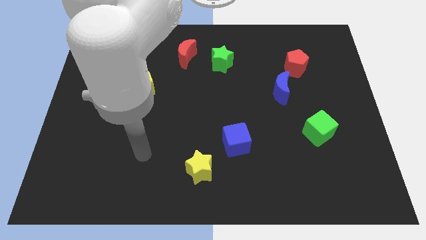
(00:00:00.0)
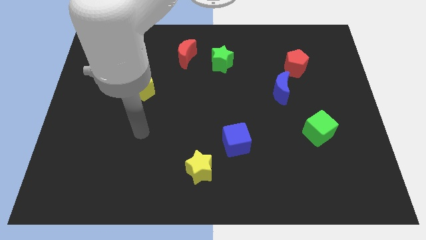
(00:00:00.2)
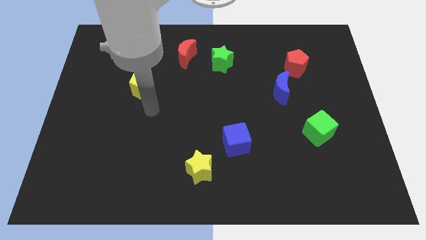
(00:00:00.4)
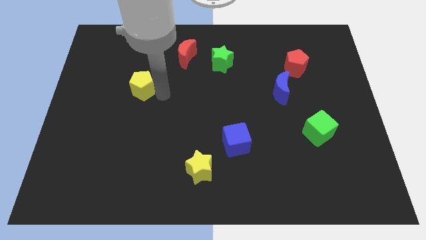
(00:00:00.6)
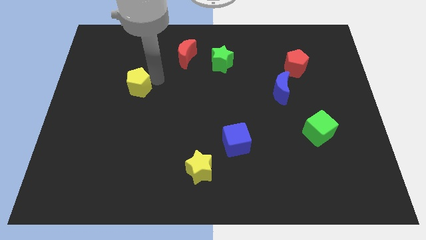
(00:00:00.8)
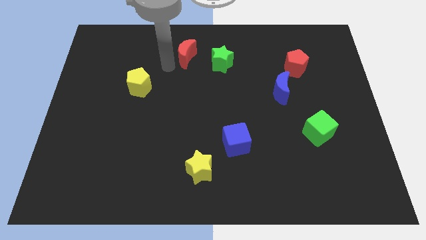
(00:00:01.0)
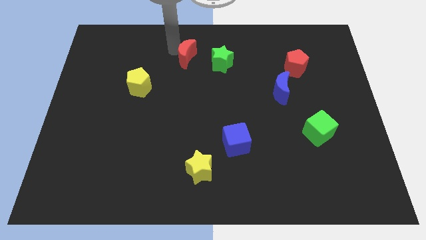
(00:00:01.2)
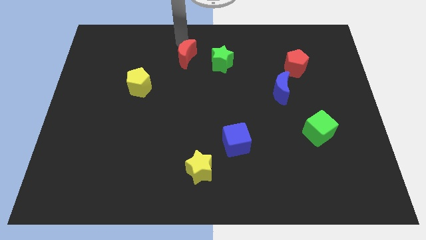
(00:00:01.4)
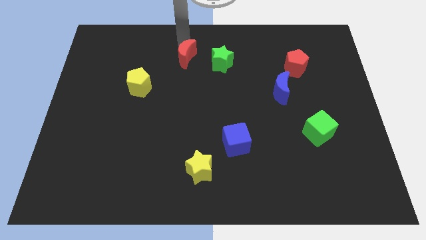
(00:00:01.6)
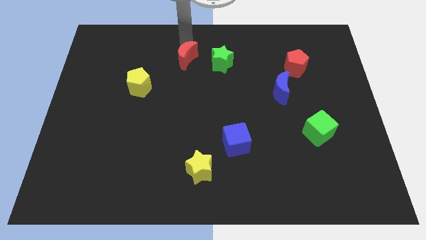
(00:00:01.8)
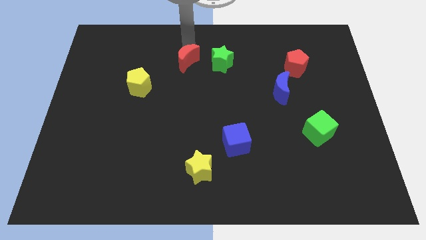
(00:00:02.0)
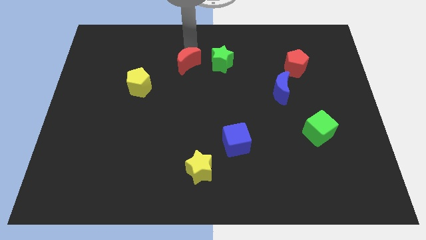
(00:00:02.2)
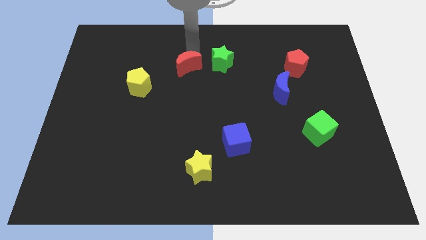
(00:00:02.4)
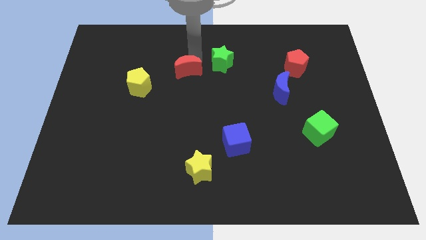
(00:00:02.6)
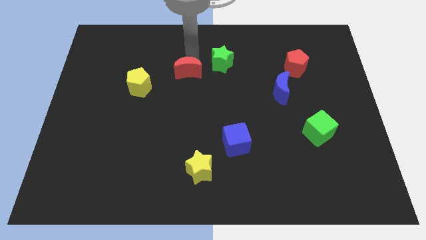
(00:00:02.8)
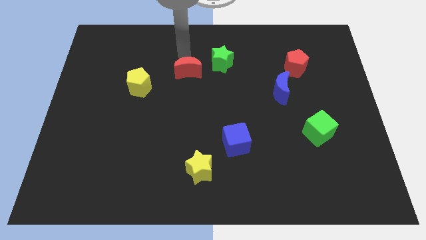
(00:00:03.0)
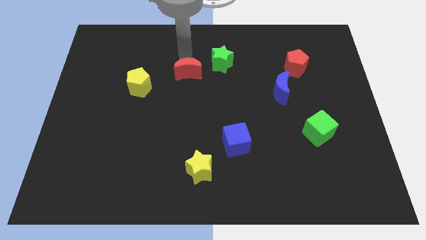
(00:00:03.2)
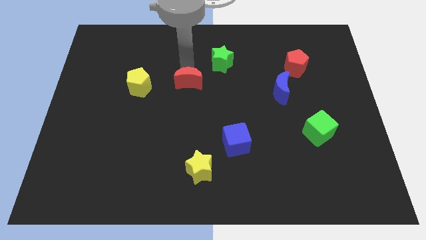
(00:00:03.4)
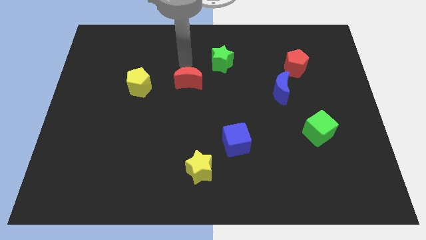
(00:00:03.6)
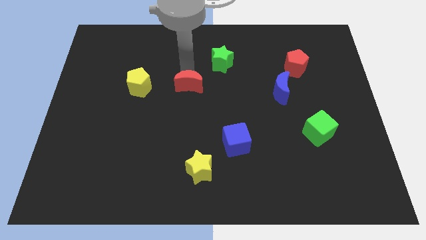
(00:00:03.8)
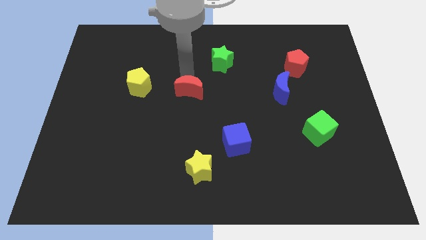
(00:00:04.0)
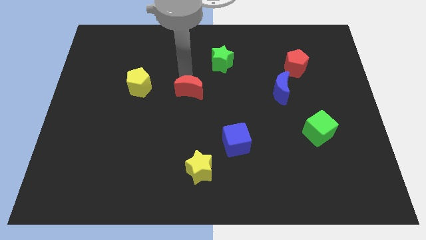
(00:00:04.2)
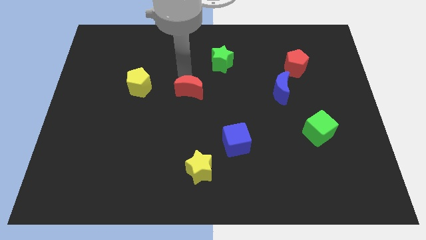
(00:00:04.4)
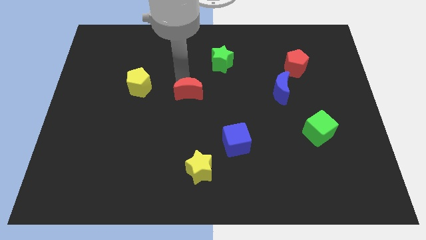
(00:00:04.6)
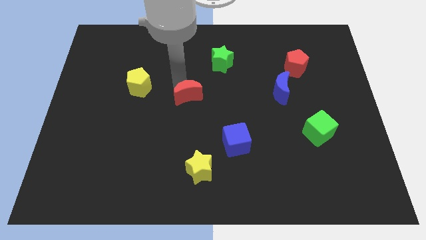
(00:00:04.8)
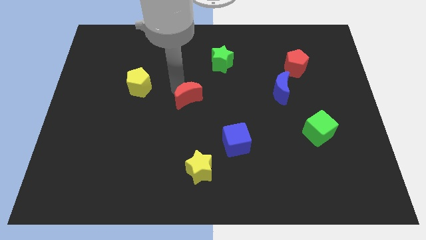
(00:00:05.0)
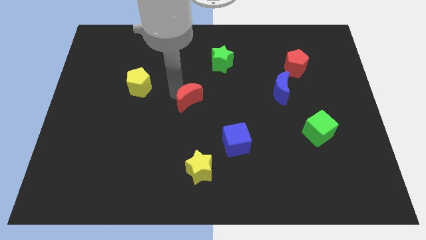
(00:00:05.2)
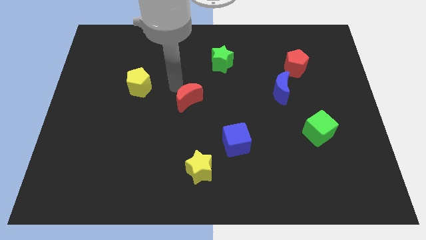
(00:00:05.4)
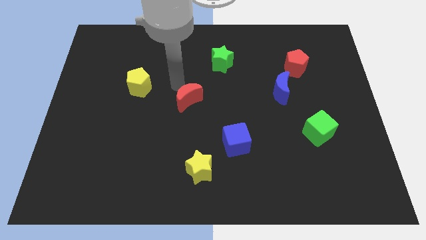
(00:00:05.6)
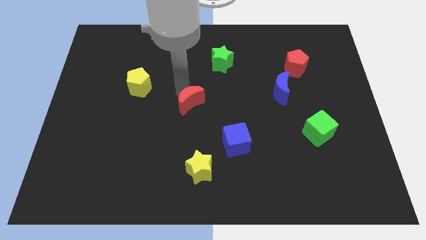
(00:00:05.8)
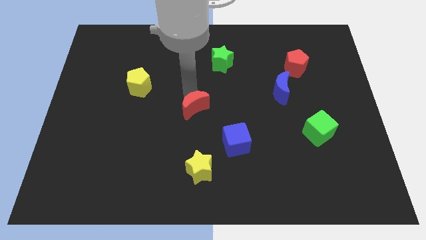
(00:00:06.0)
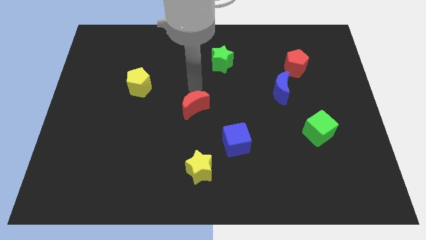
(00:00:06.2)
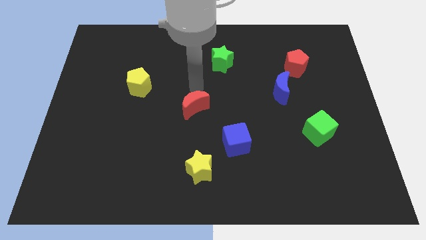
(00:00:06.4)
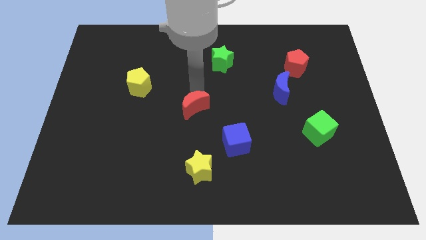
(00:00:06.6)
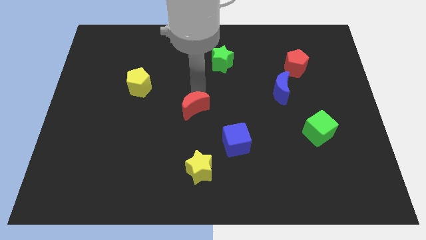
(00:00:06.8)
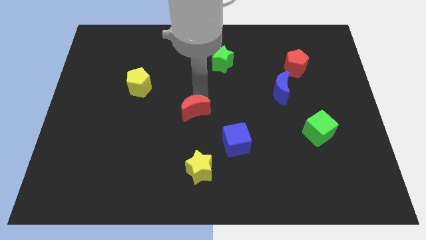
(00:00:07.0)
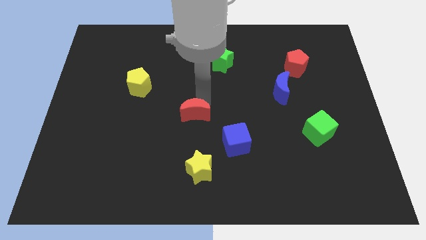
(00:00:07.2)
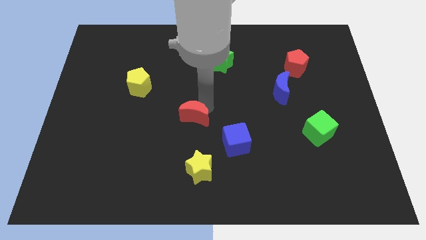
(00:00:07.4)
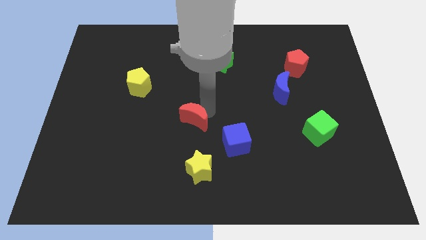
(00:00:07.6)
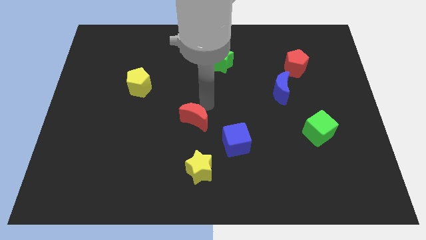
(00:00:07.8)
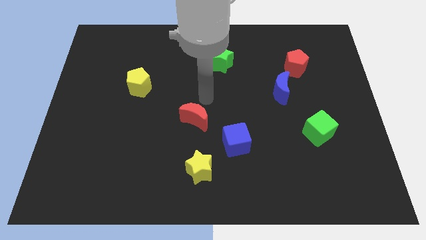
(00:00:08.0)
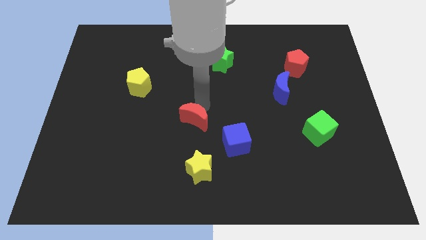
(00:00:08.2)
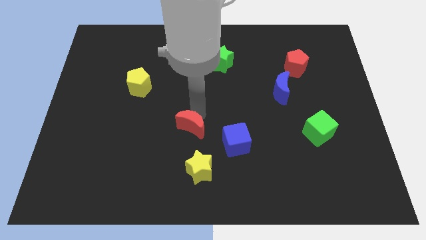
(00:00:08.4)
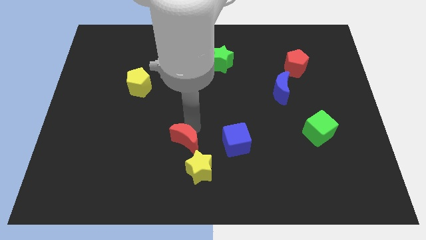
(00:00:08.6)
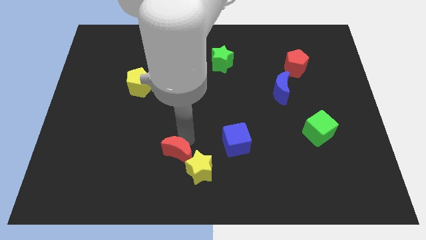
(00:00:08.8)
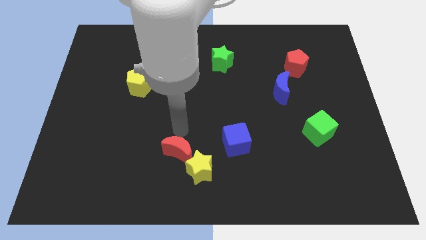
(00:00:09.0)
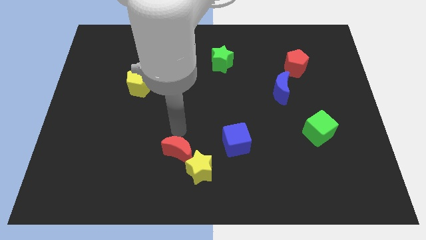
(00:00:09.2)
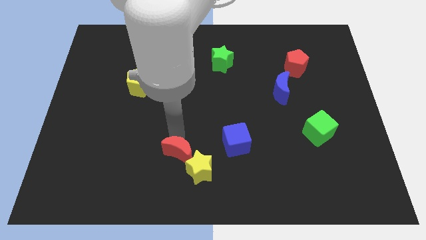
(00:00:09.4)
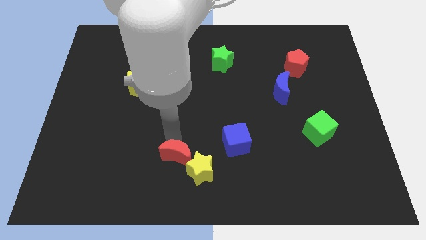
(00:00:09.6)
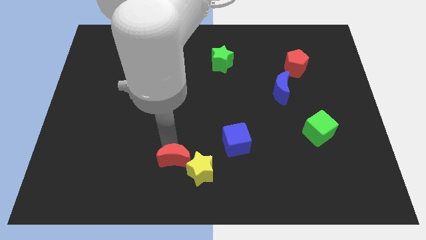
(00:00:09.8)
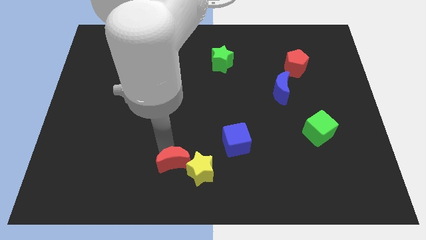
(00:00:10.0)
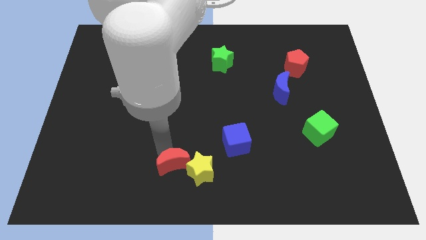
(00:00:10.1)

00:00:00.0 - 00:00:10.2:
put the red moon to the bottom

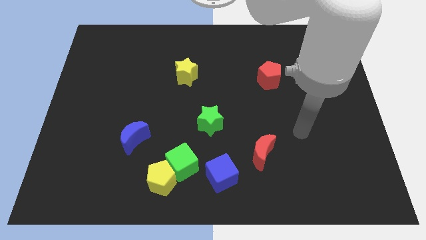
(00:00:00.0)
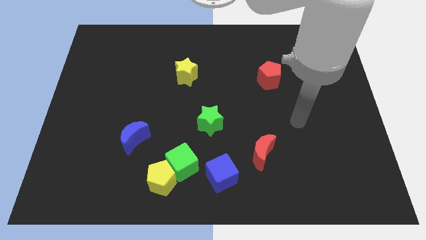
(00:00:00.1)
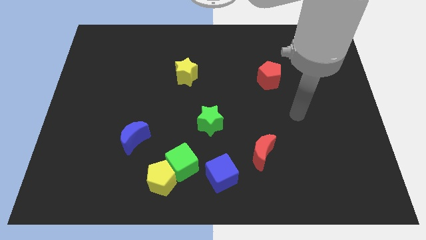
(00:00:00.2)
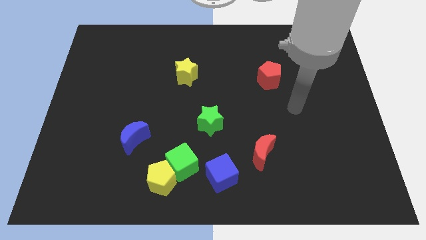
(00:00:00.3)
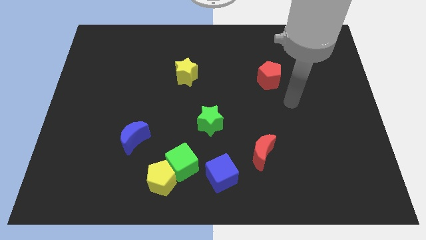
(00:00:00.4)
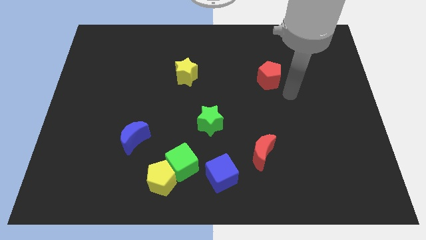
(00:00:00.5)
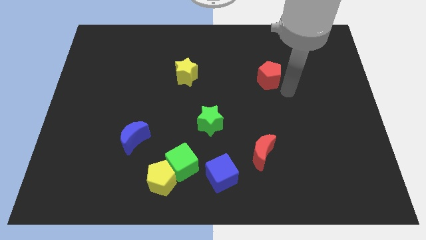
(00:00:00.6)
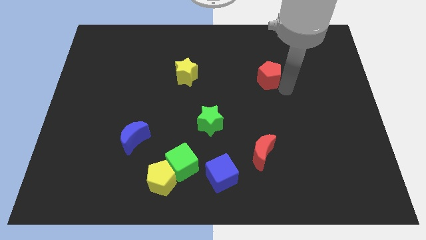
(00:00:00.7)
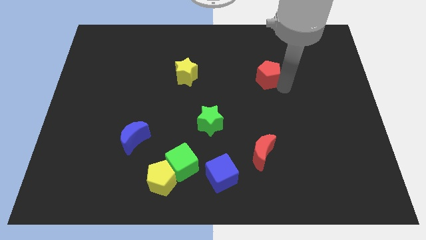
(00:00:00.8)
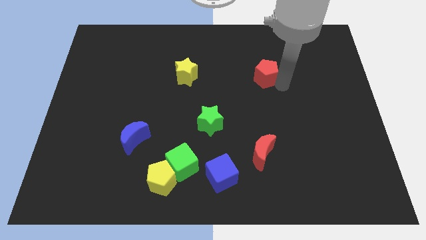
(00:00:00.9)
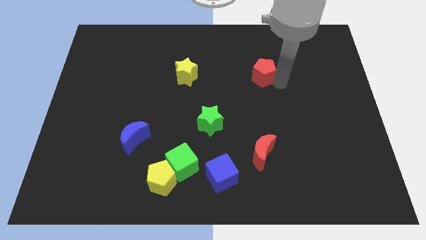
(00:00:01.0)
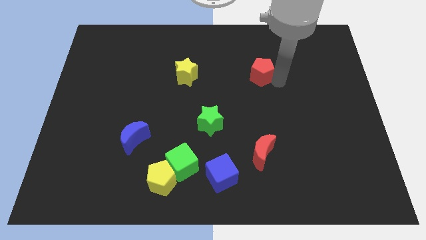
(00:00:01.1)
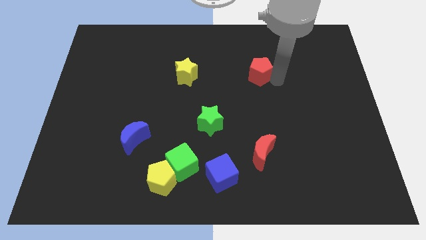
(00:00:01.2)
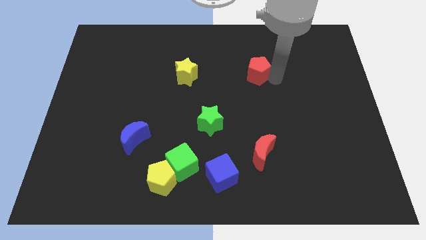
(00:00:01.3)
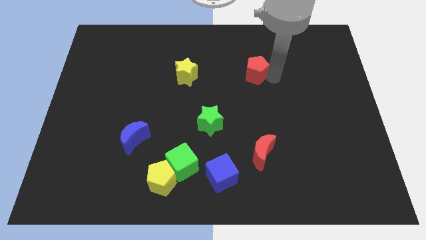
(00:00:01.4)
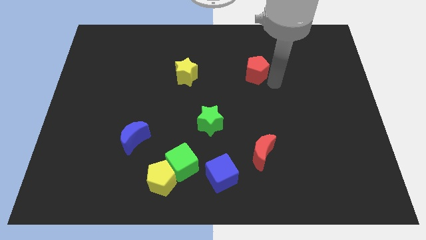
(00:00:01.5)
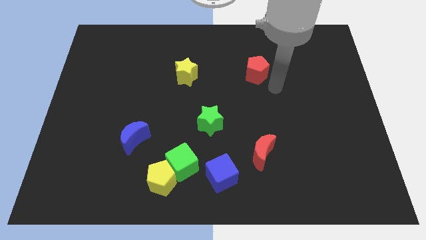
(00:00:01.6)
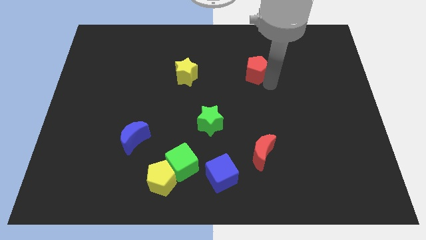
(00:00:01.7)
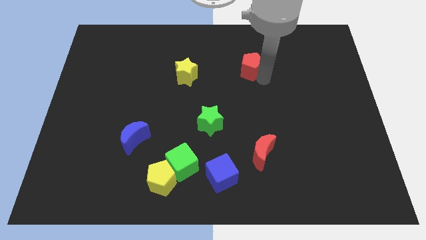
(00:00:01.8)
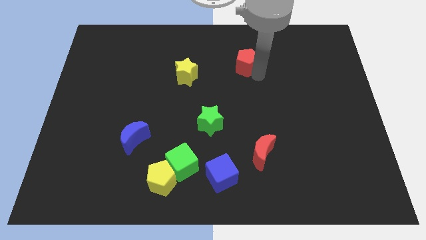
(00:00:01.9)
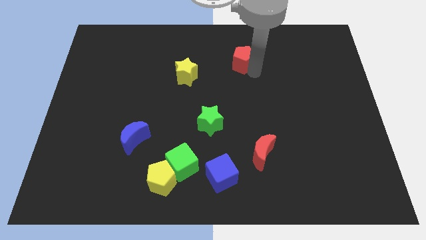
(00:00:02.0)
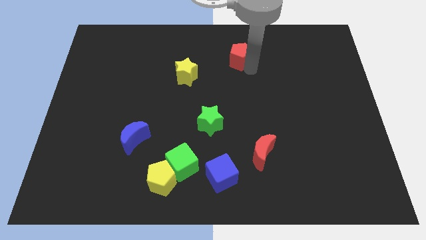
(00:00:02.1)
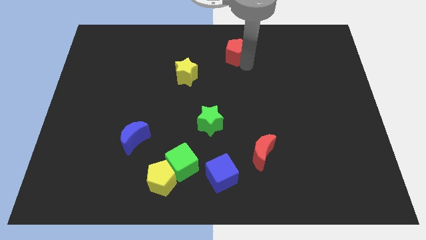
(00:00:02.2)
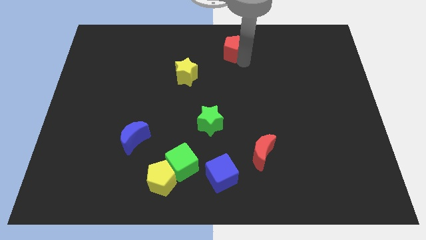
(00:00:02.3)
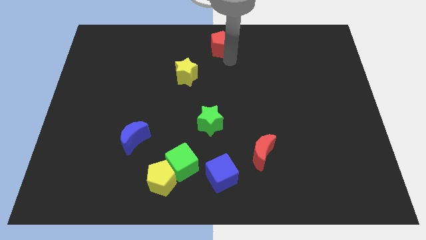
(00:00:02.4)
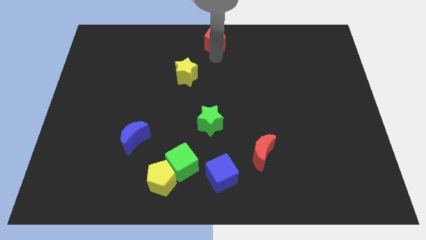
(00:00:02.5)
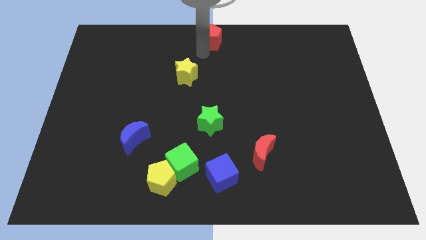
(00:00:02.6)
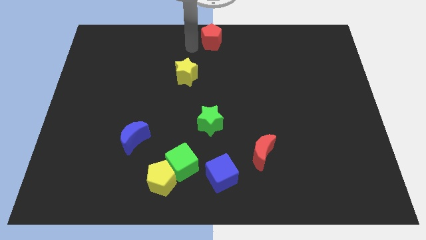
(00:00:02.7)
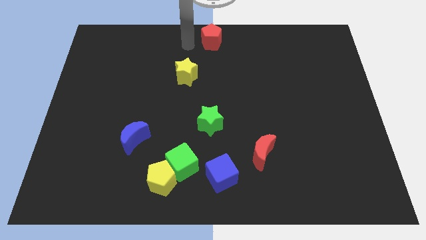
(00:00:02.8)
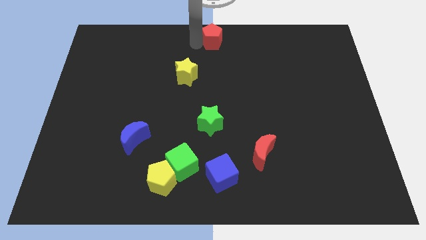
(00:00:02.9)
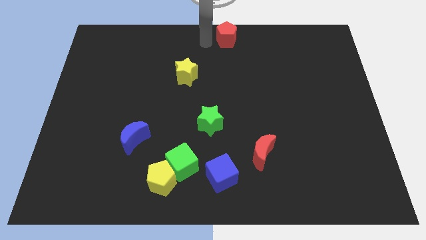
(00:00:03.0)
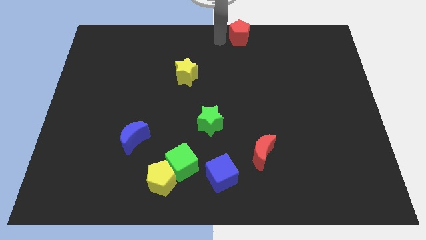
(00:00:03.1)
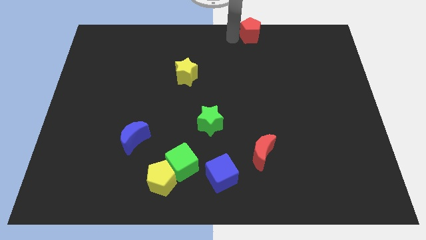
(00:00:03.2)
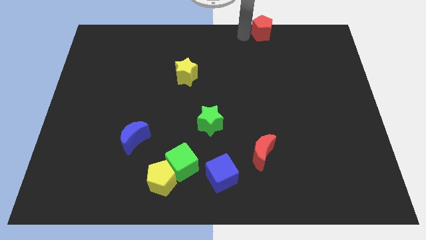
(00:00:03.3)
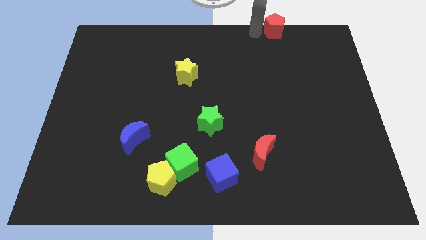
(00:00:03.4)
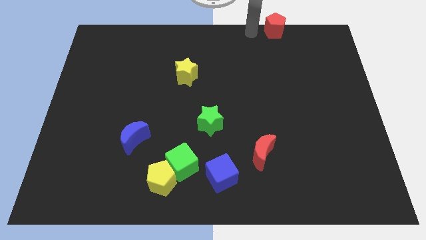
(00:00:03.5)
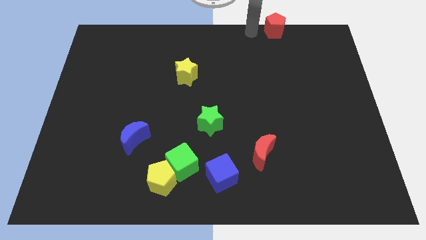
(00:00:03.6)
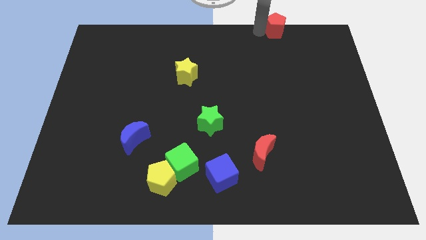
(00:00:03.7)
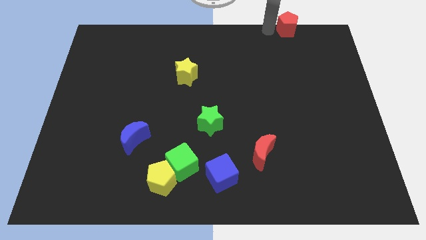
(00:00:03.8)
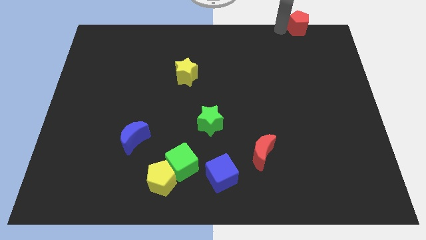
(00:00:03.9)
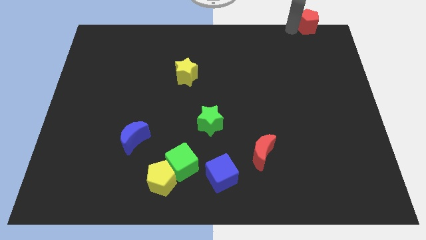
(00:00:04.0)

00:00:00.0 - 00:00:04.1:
push the red pentagon to the top right of the board
